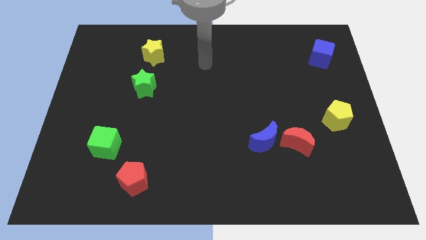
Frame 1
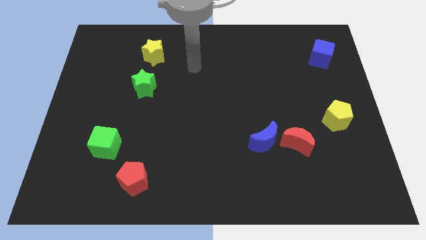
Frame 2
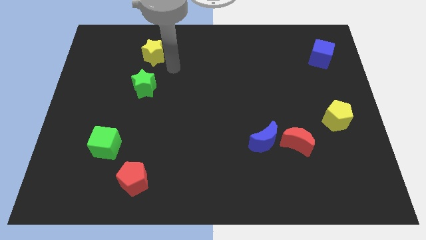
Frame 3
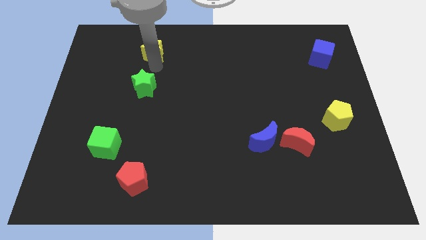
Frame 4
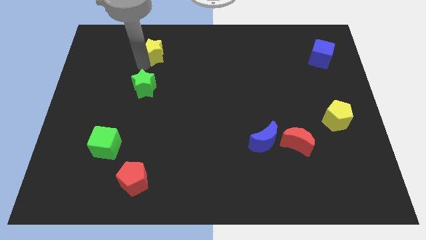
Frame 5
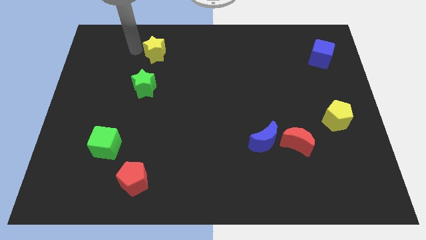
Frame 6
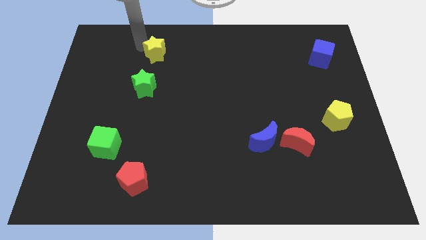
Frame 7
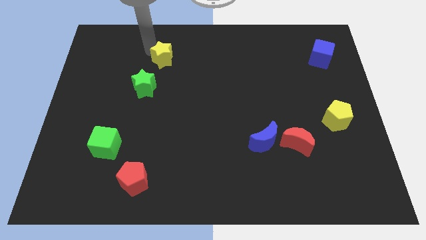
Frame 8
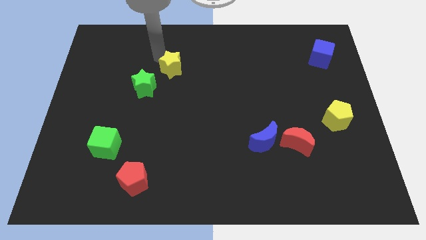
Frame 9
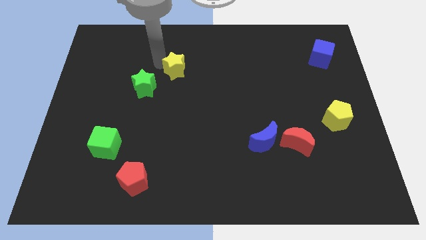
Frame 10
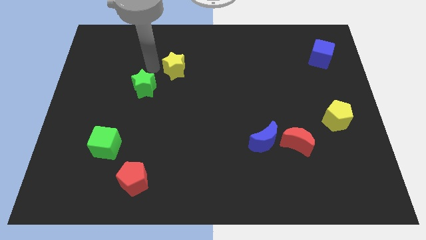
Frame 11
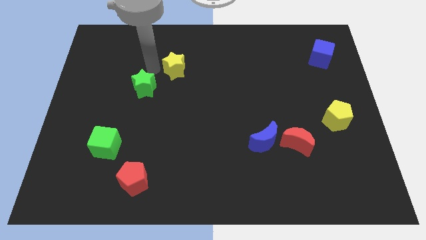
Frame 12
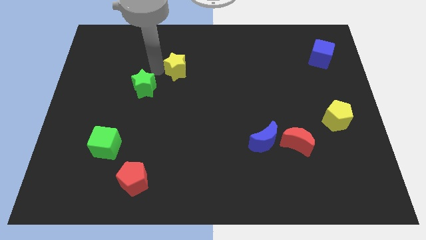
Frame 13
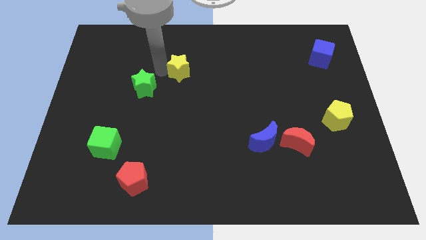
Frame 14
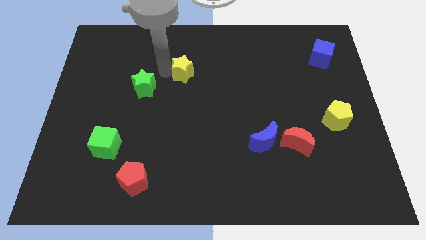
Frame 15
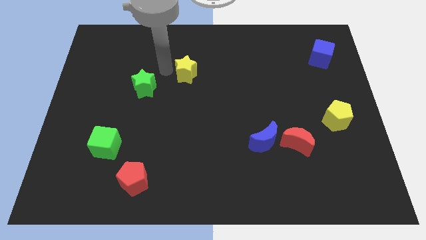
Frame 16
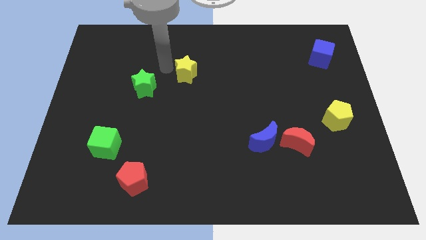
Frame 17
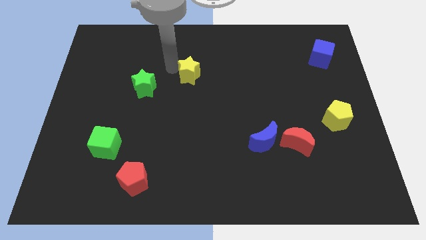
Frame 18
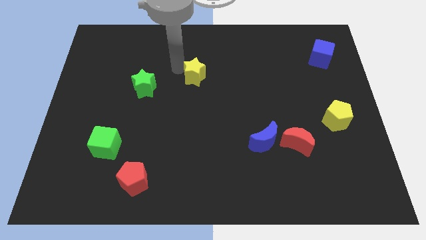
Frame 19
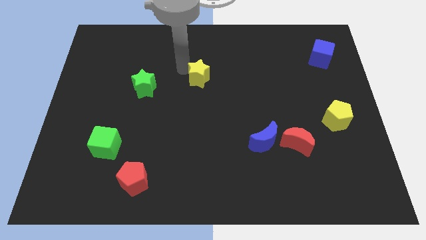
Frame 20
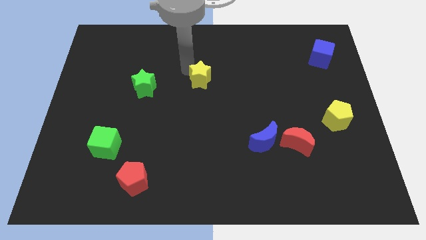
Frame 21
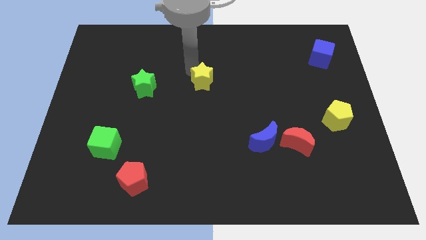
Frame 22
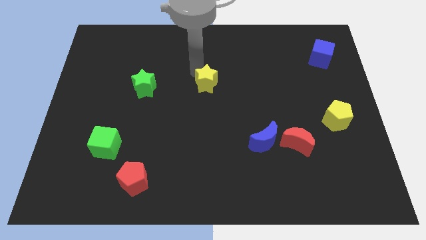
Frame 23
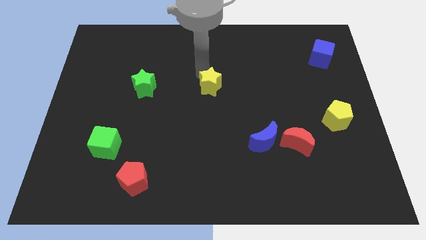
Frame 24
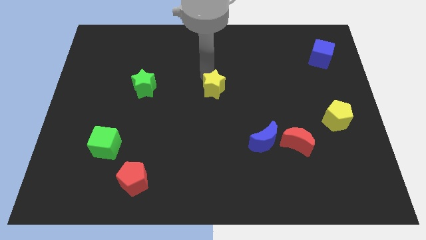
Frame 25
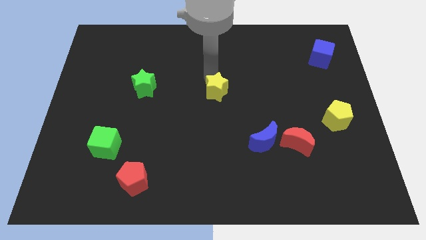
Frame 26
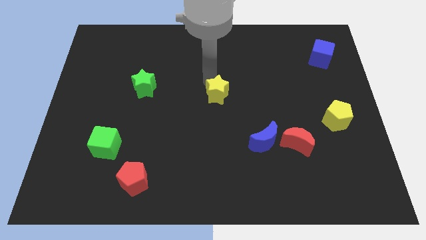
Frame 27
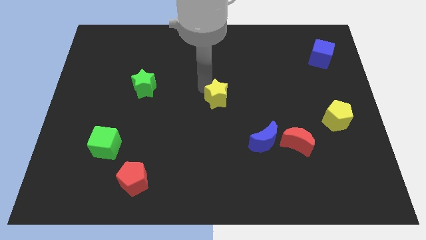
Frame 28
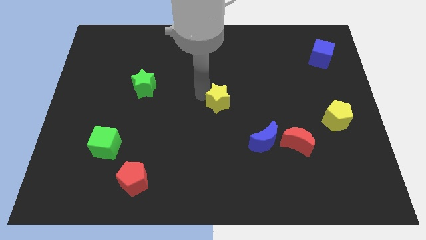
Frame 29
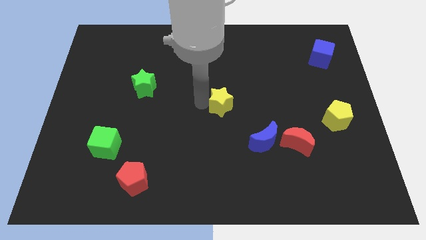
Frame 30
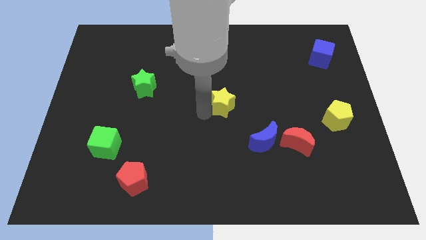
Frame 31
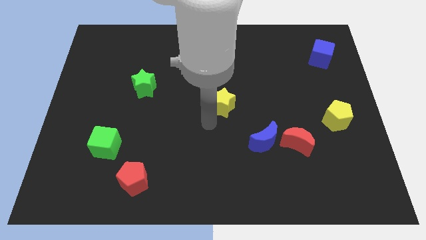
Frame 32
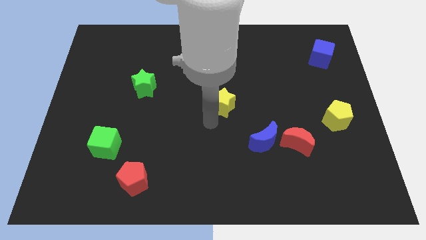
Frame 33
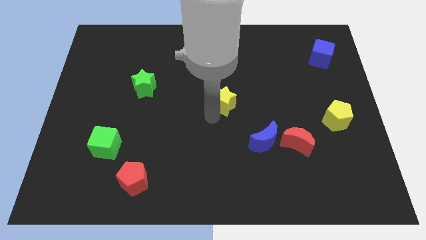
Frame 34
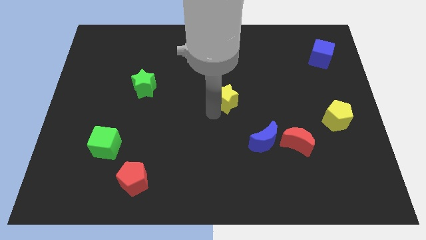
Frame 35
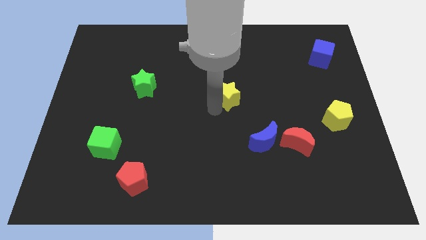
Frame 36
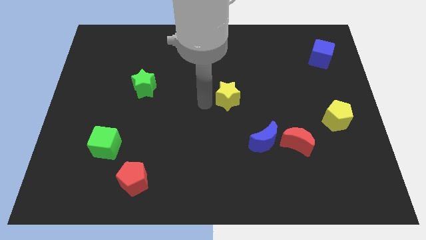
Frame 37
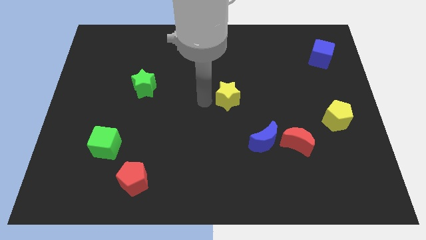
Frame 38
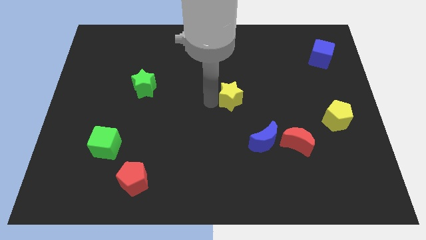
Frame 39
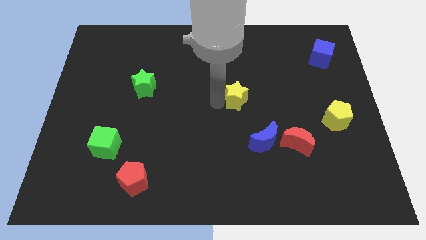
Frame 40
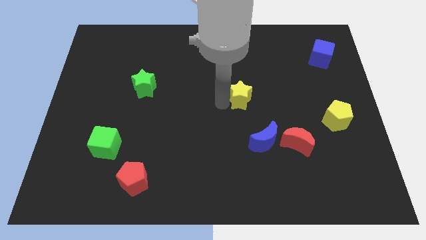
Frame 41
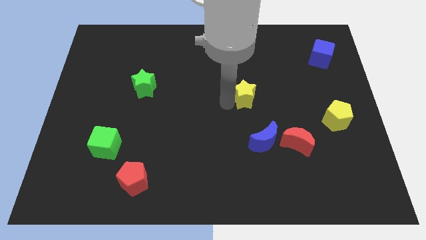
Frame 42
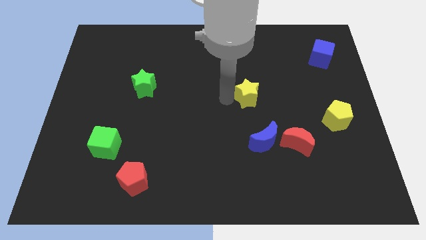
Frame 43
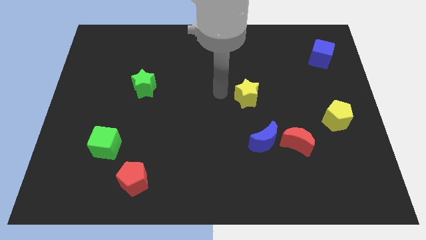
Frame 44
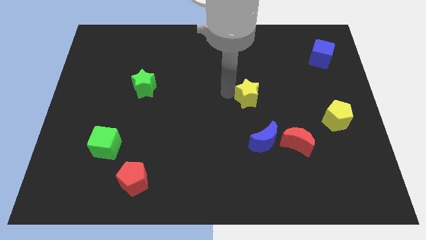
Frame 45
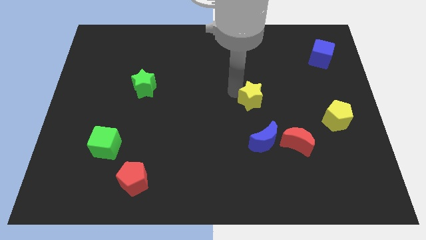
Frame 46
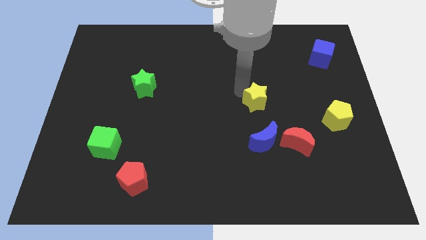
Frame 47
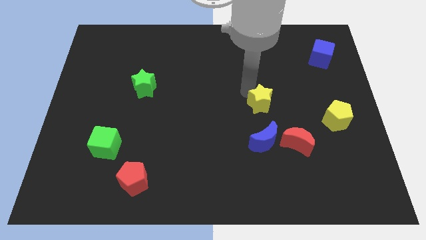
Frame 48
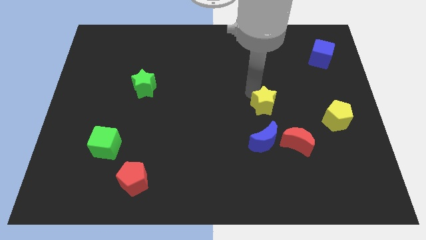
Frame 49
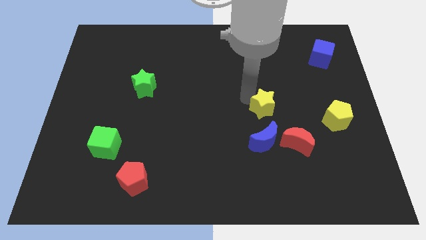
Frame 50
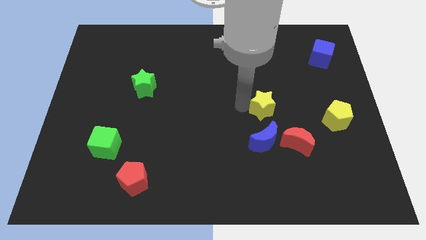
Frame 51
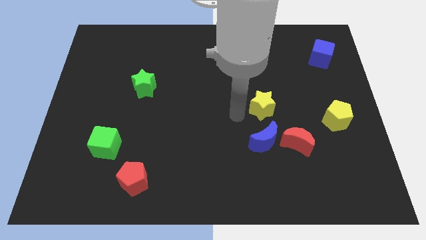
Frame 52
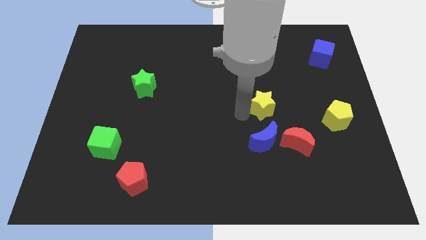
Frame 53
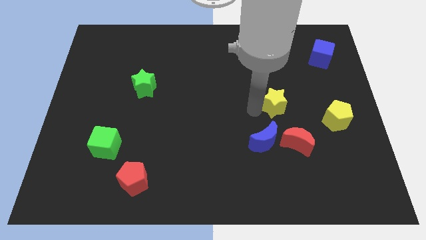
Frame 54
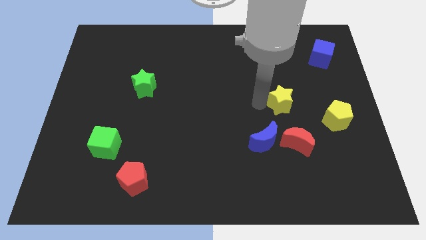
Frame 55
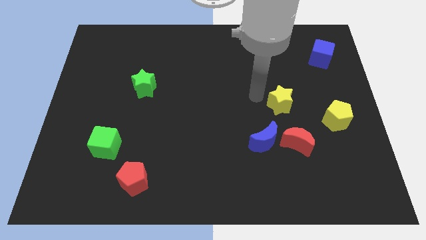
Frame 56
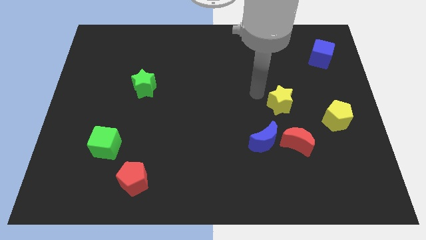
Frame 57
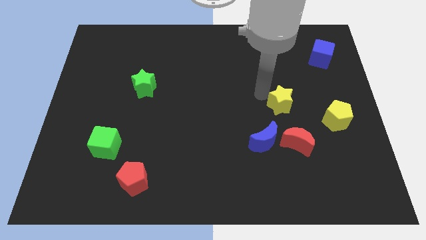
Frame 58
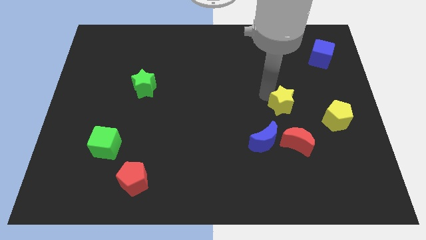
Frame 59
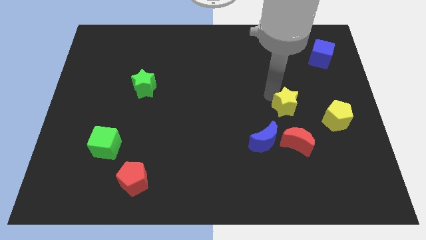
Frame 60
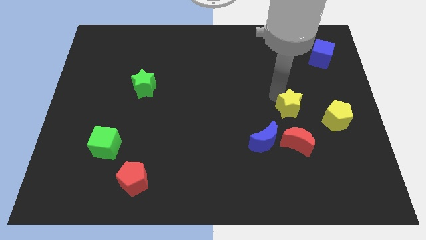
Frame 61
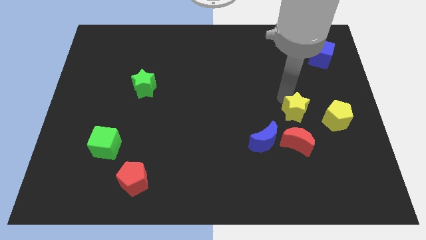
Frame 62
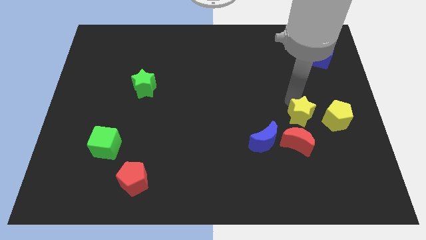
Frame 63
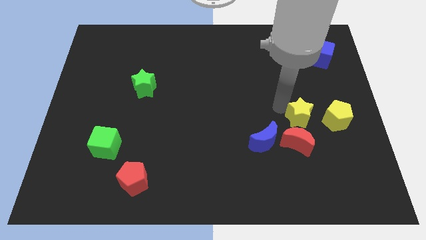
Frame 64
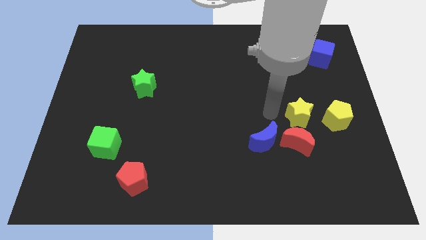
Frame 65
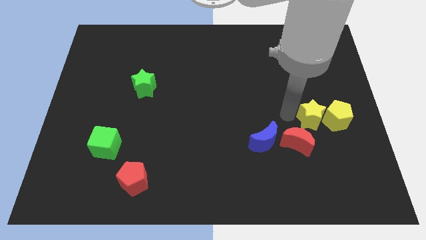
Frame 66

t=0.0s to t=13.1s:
put the yellow star close to the yellow pentagon
